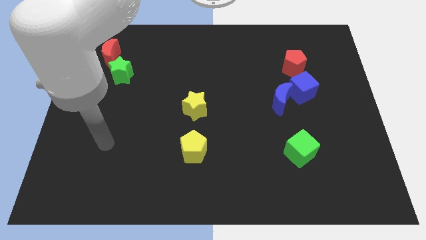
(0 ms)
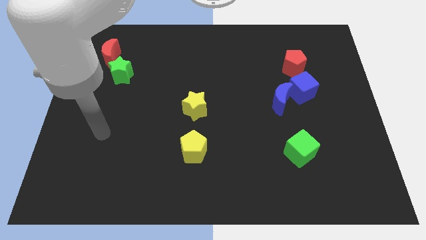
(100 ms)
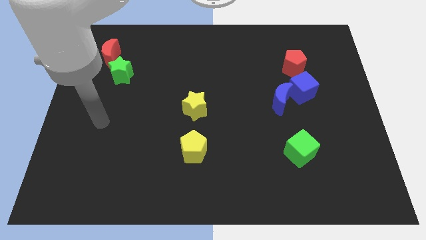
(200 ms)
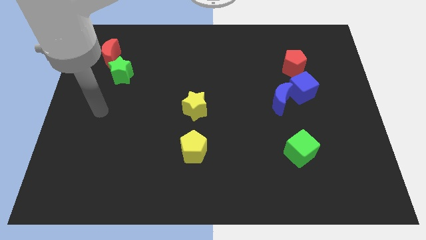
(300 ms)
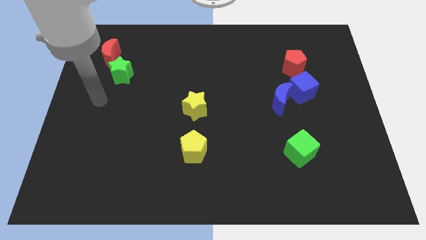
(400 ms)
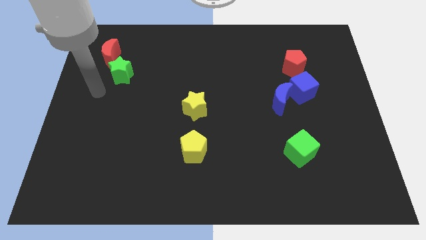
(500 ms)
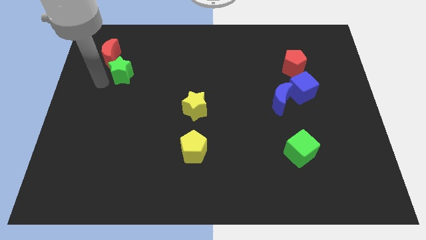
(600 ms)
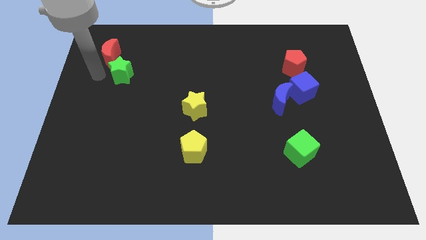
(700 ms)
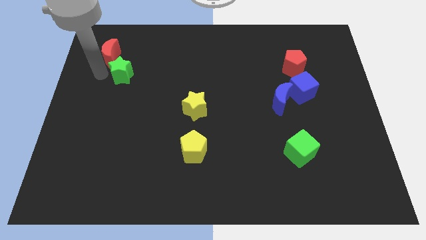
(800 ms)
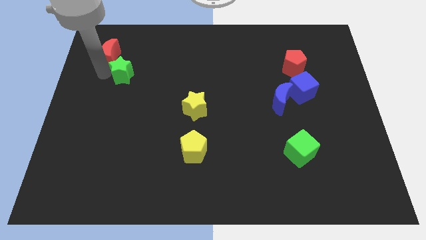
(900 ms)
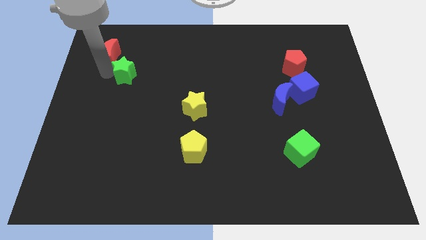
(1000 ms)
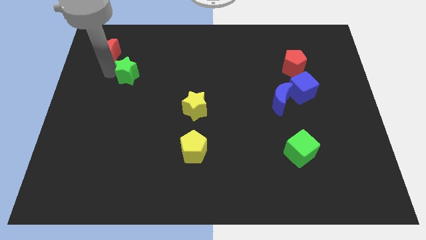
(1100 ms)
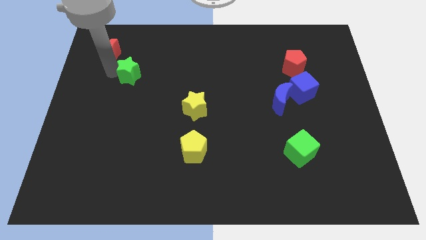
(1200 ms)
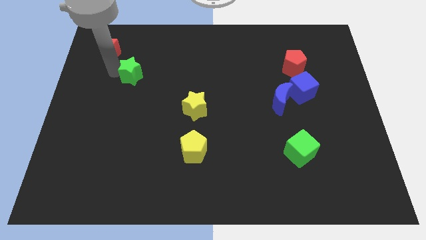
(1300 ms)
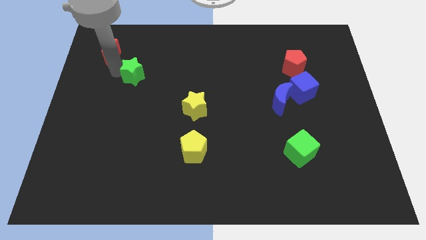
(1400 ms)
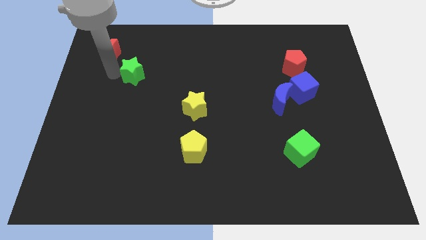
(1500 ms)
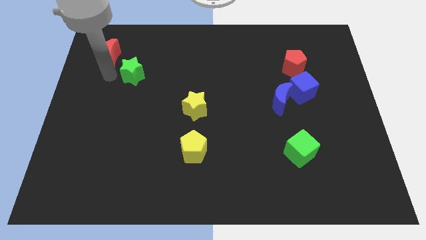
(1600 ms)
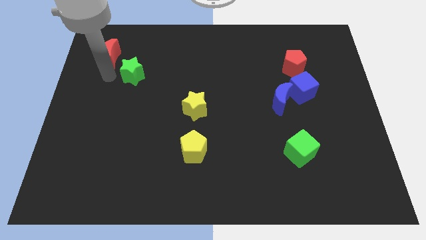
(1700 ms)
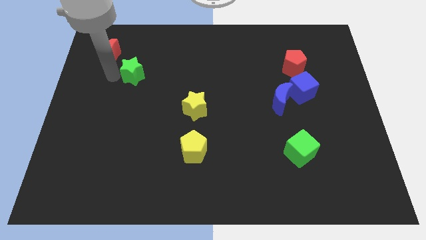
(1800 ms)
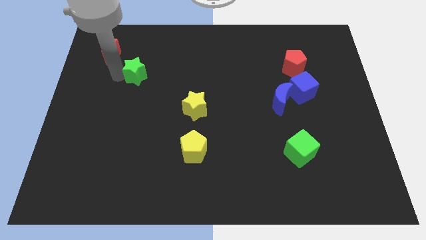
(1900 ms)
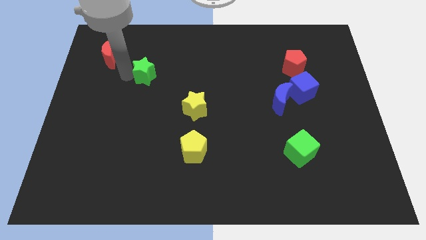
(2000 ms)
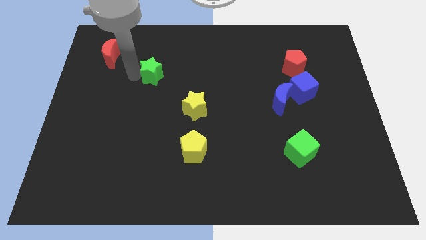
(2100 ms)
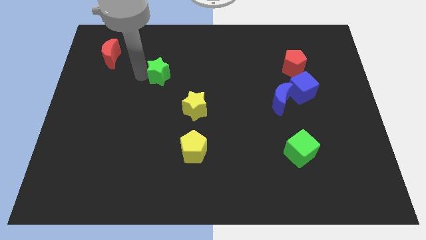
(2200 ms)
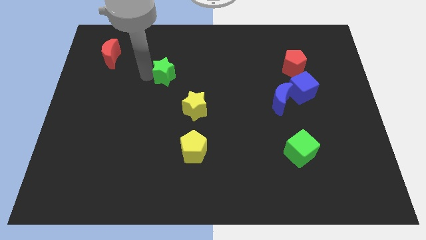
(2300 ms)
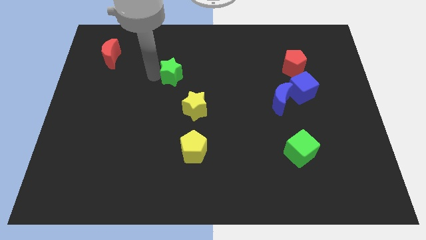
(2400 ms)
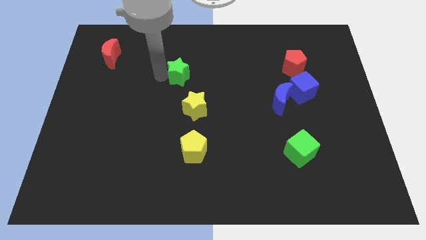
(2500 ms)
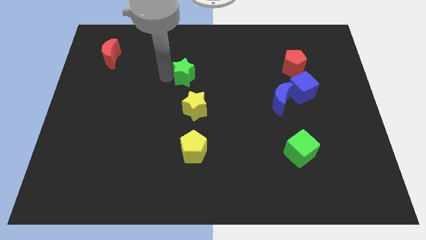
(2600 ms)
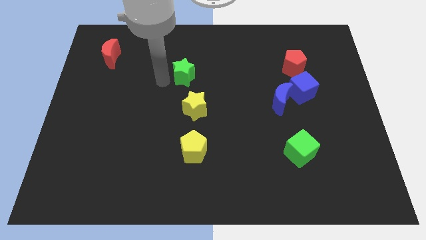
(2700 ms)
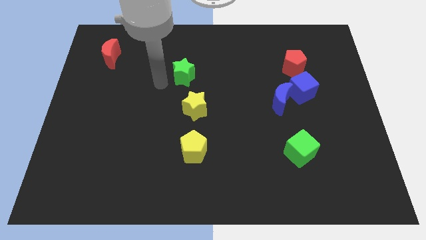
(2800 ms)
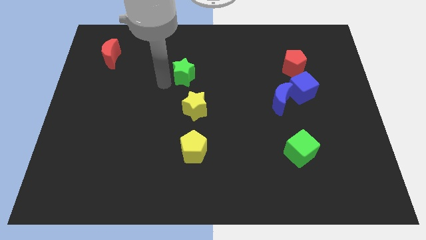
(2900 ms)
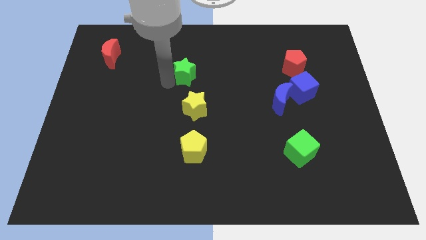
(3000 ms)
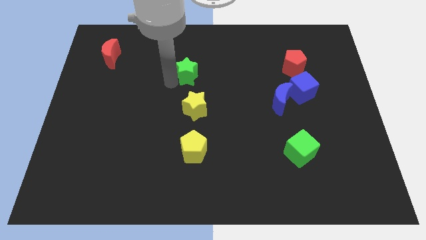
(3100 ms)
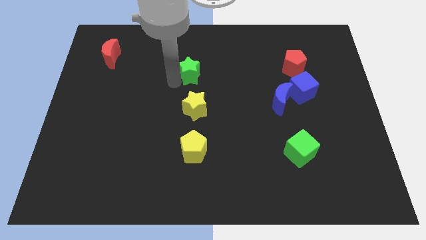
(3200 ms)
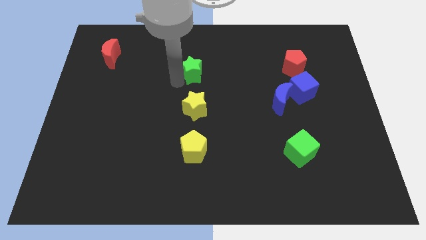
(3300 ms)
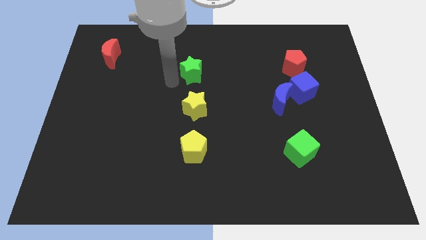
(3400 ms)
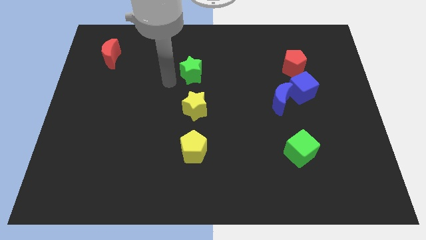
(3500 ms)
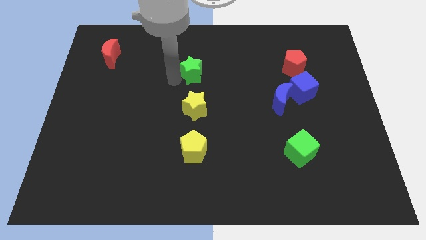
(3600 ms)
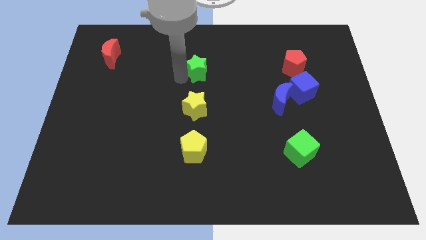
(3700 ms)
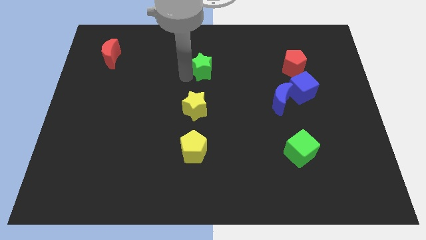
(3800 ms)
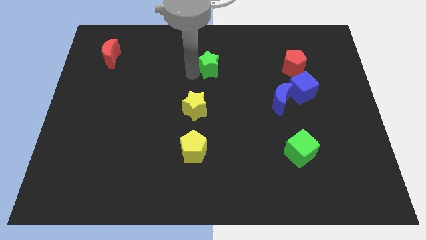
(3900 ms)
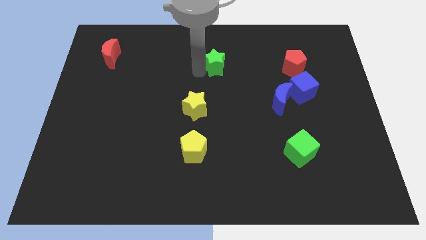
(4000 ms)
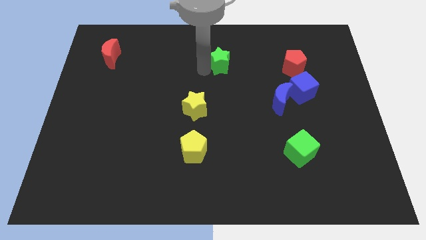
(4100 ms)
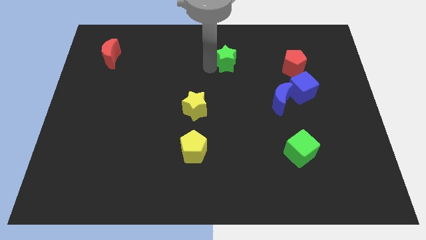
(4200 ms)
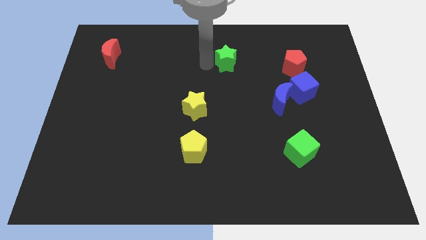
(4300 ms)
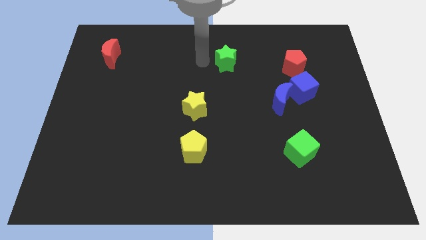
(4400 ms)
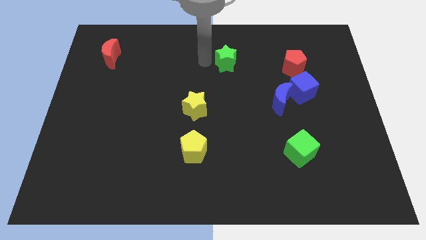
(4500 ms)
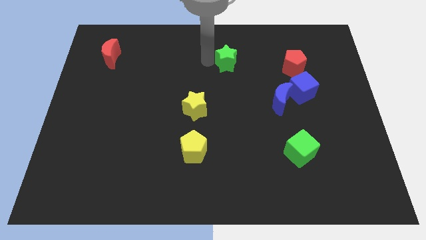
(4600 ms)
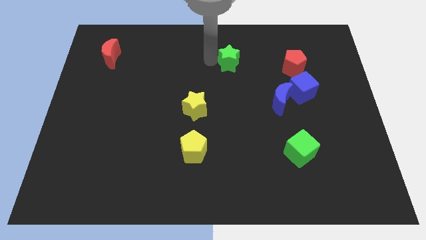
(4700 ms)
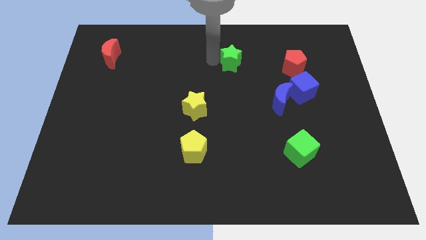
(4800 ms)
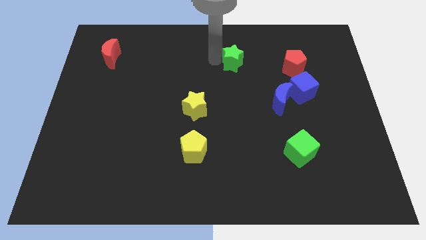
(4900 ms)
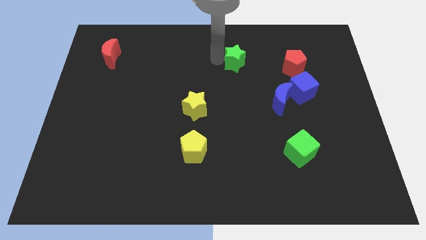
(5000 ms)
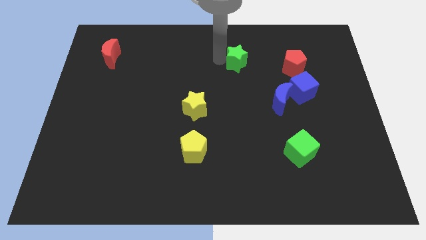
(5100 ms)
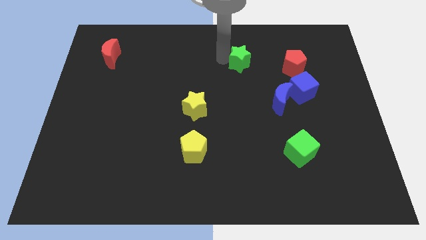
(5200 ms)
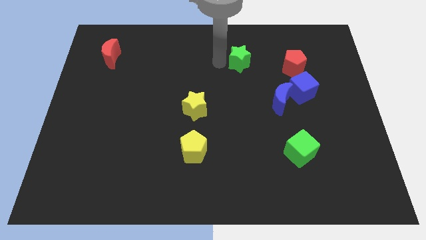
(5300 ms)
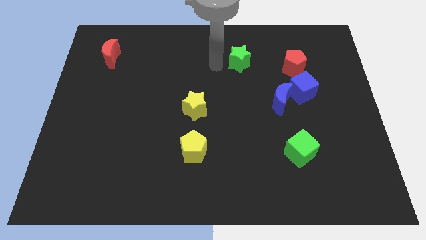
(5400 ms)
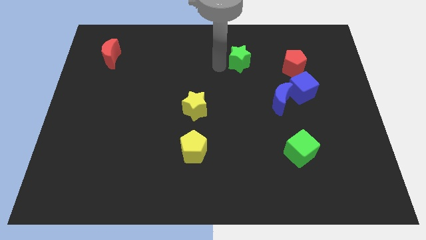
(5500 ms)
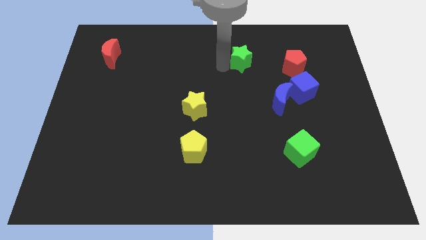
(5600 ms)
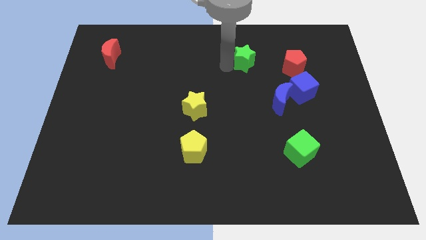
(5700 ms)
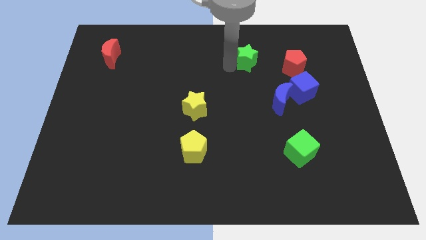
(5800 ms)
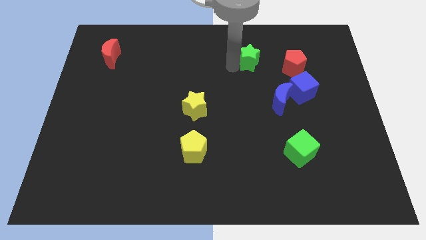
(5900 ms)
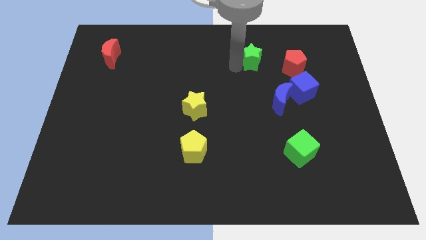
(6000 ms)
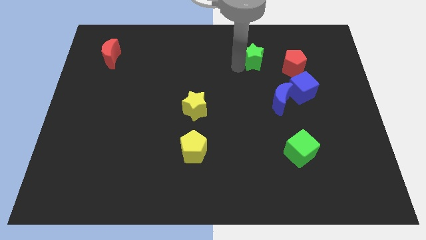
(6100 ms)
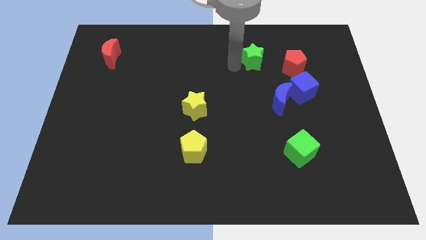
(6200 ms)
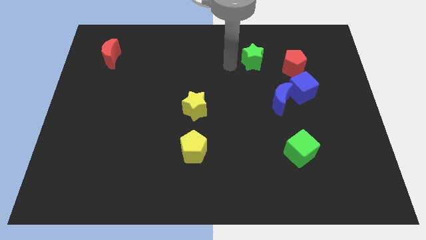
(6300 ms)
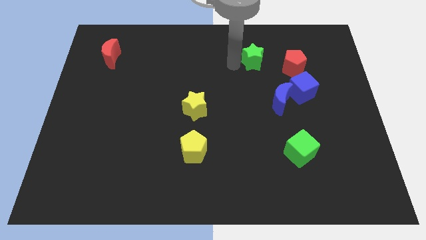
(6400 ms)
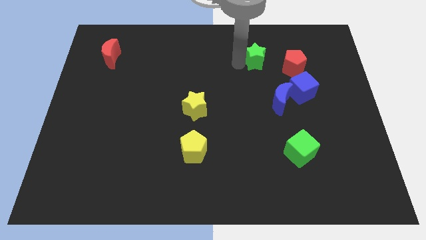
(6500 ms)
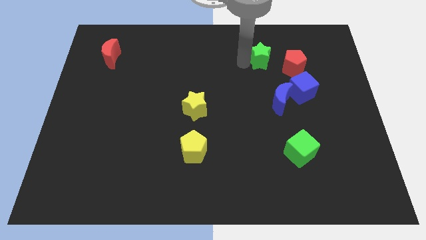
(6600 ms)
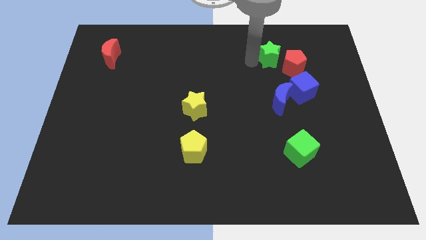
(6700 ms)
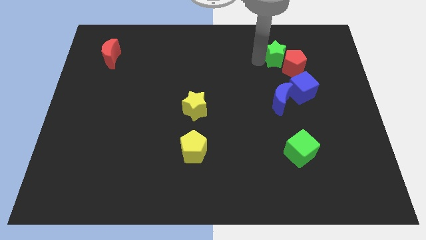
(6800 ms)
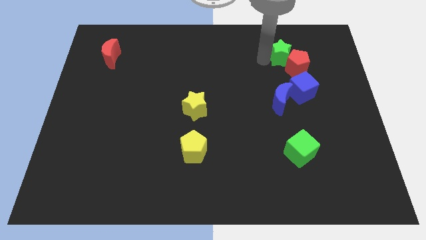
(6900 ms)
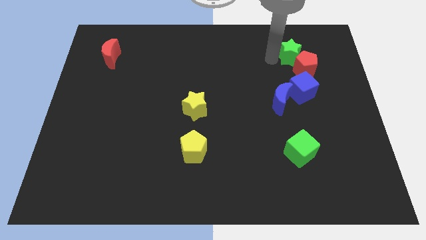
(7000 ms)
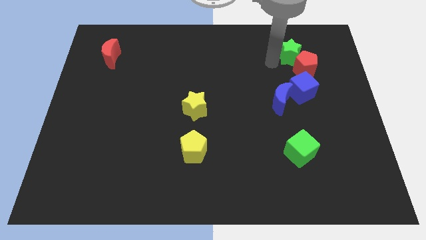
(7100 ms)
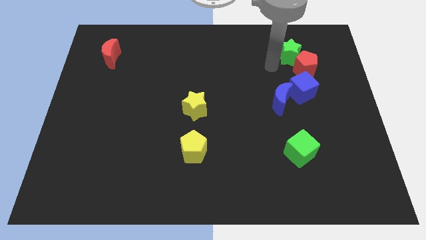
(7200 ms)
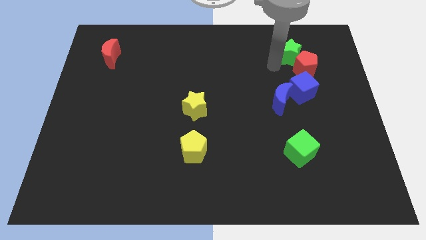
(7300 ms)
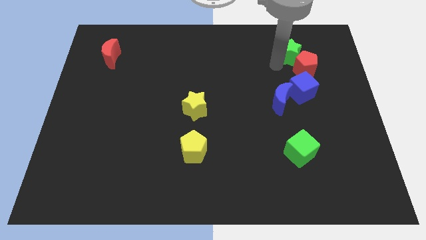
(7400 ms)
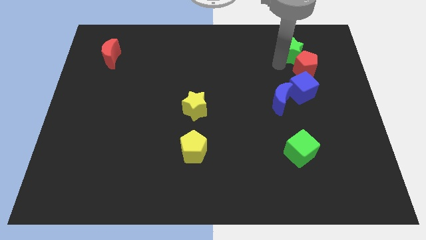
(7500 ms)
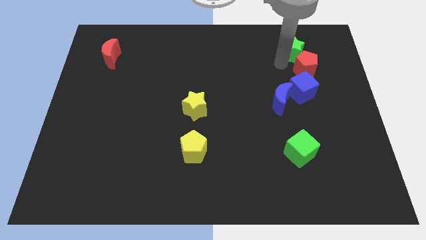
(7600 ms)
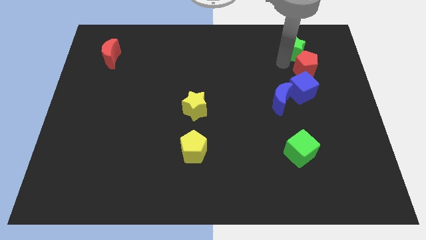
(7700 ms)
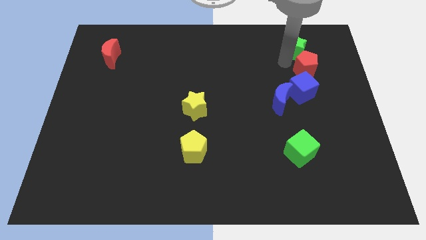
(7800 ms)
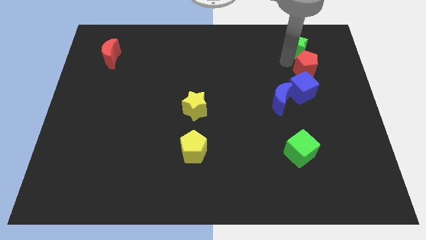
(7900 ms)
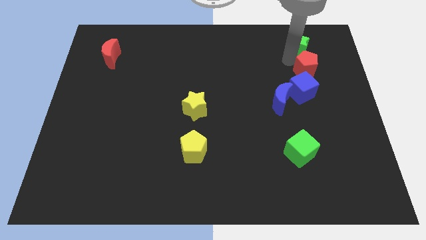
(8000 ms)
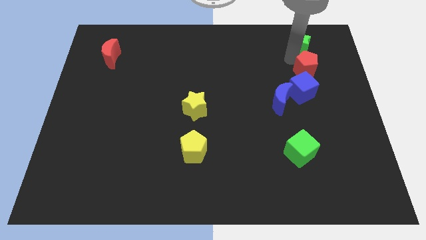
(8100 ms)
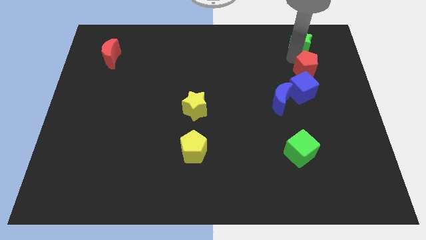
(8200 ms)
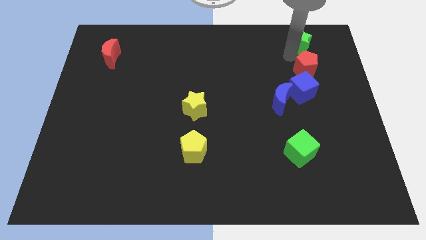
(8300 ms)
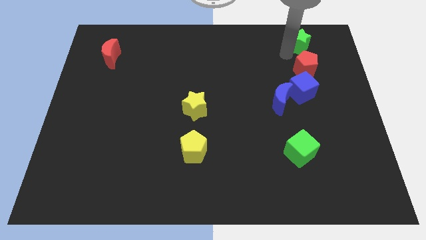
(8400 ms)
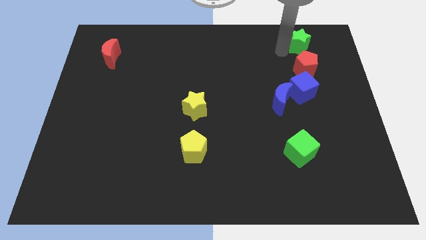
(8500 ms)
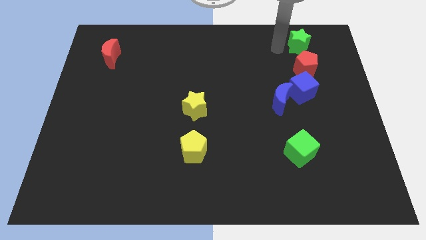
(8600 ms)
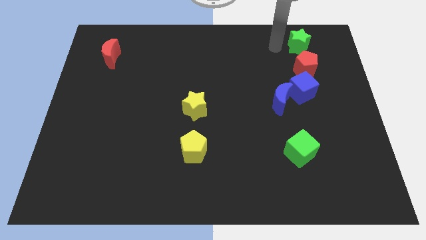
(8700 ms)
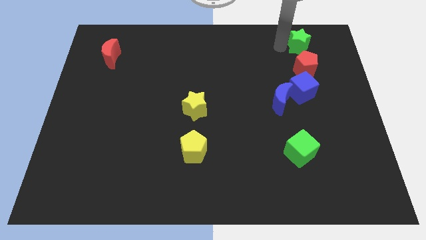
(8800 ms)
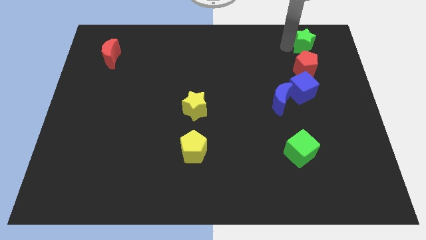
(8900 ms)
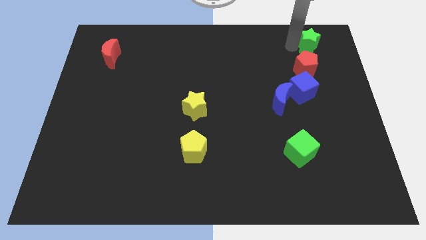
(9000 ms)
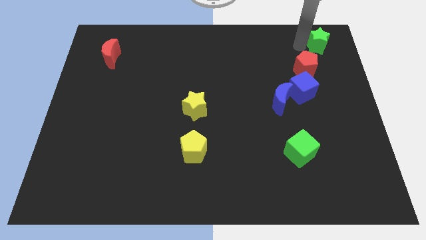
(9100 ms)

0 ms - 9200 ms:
push the green star to the top right of the board
